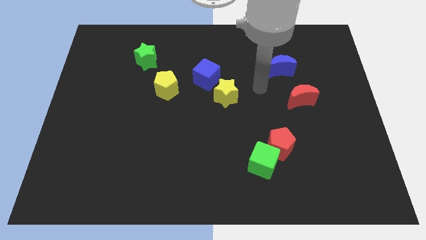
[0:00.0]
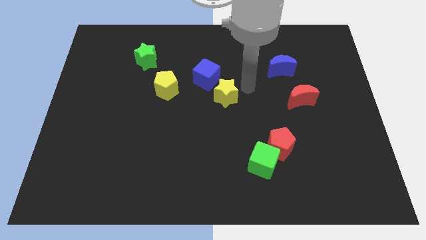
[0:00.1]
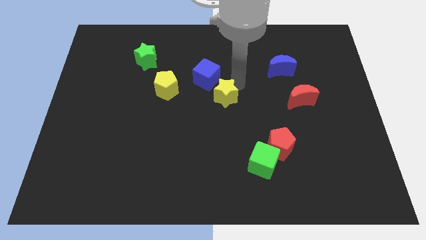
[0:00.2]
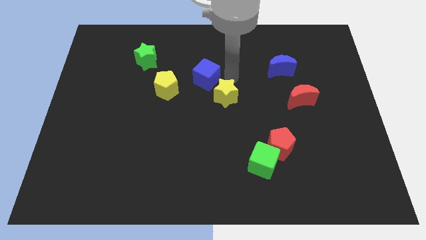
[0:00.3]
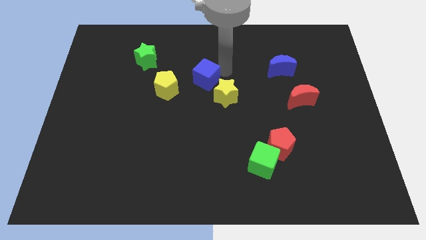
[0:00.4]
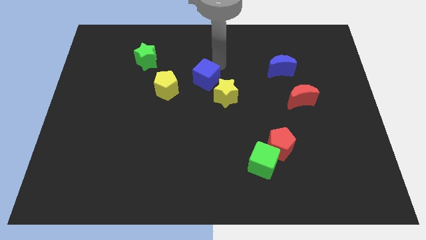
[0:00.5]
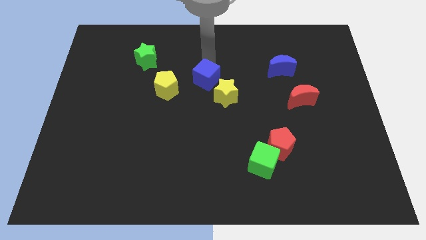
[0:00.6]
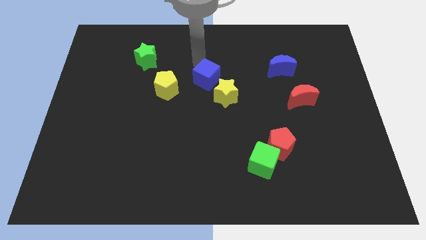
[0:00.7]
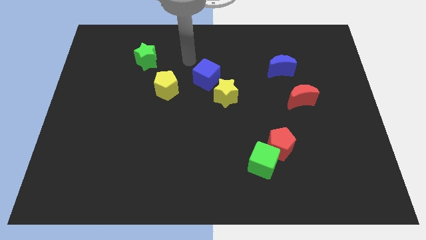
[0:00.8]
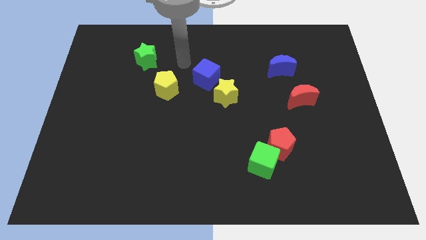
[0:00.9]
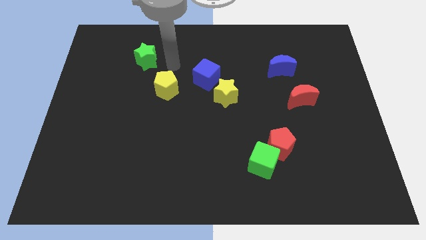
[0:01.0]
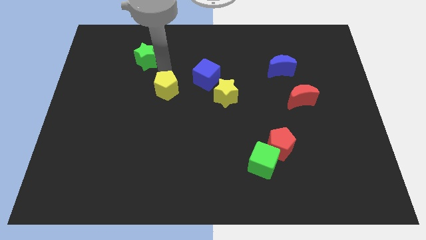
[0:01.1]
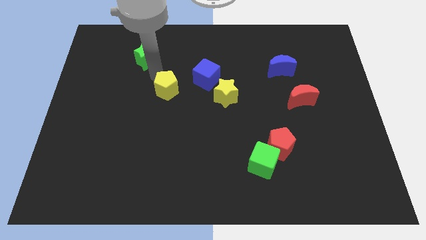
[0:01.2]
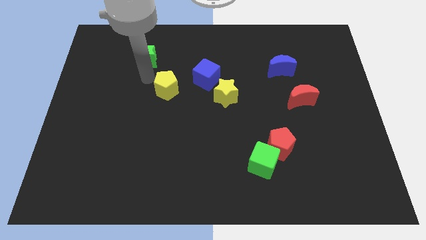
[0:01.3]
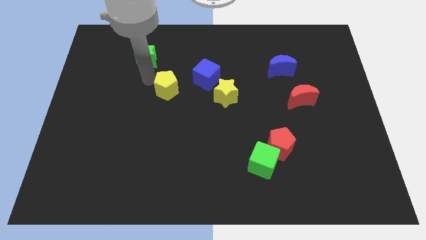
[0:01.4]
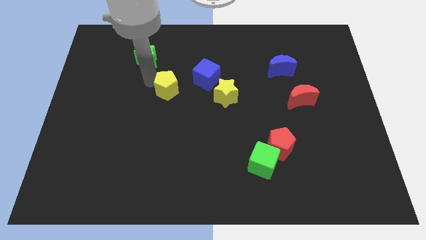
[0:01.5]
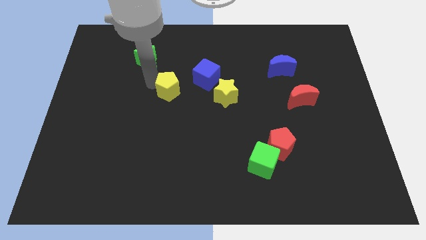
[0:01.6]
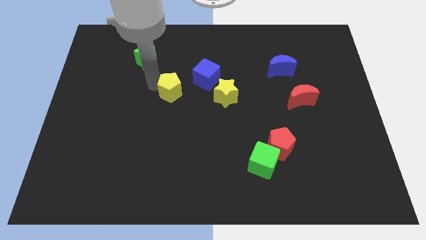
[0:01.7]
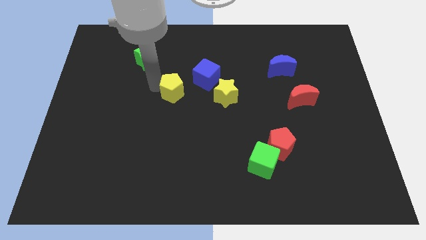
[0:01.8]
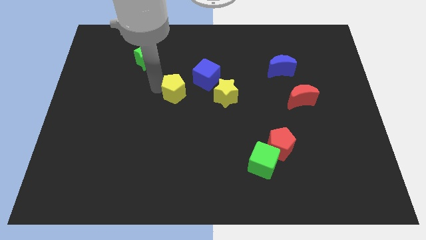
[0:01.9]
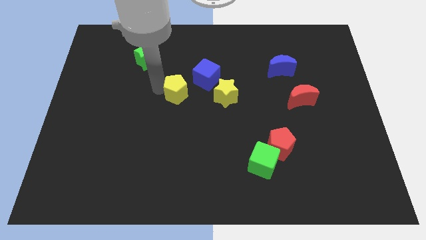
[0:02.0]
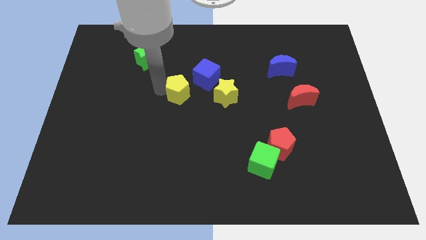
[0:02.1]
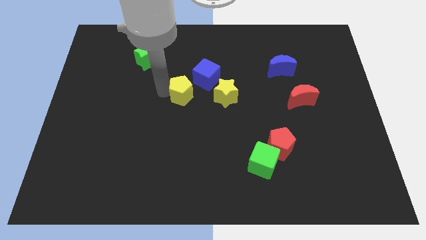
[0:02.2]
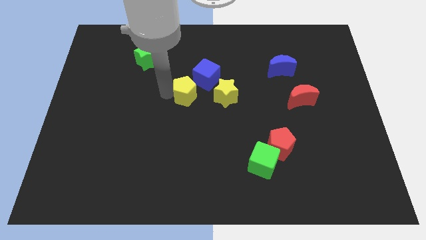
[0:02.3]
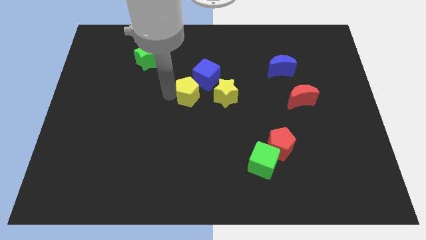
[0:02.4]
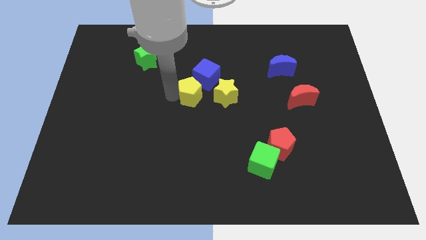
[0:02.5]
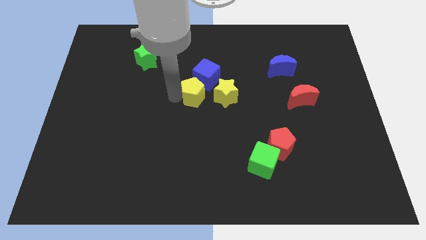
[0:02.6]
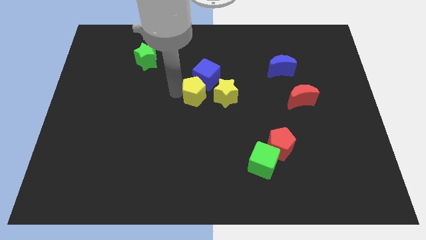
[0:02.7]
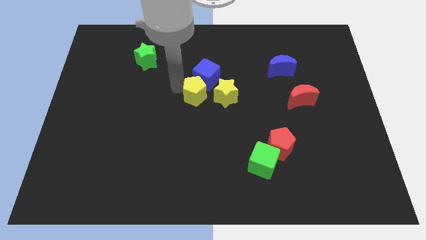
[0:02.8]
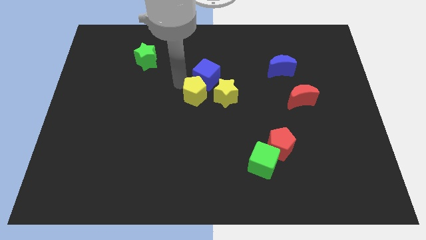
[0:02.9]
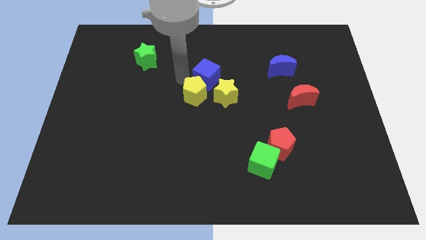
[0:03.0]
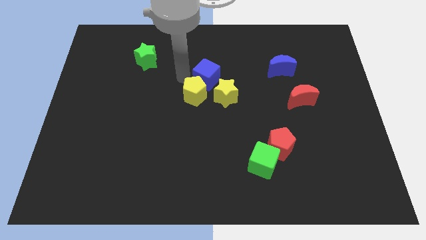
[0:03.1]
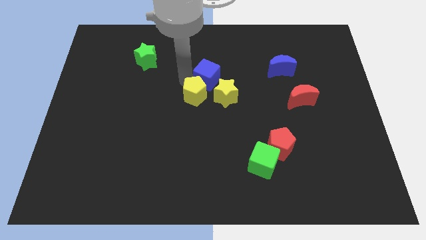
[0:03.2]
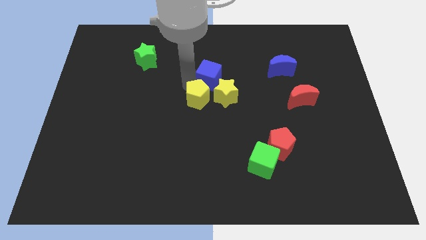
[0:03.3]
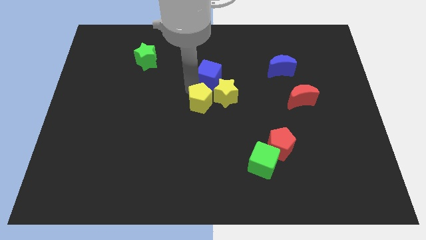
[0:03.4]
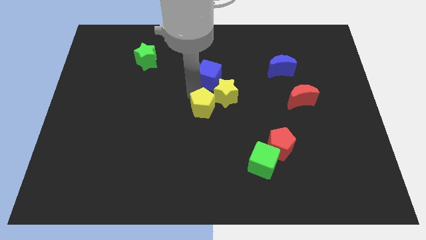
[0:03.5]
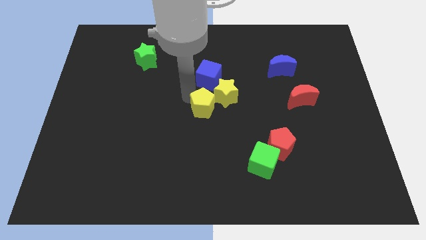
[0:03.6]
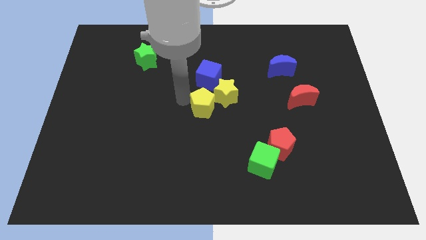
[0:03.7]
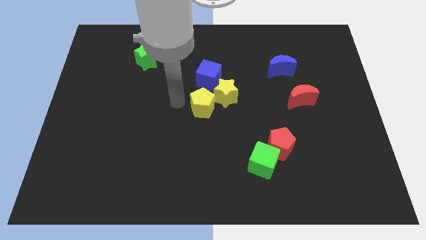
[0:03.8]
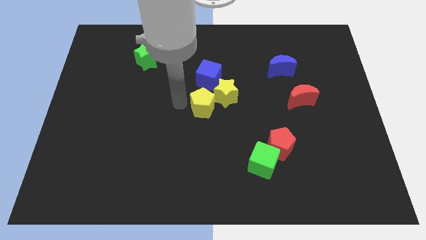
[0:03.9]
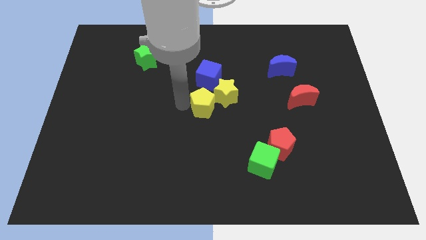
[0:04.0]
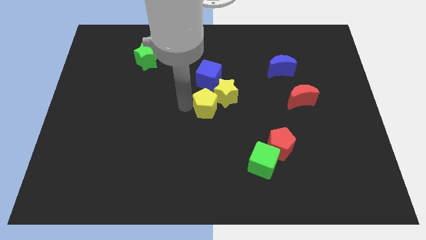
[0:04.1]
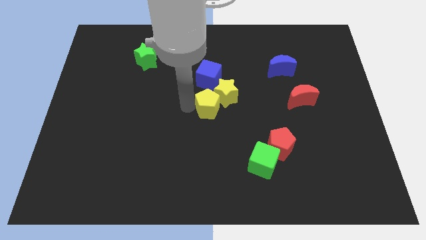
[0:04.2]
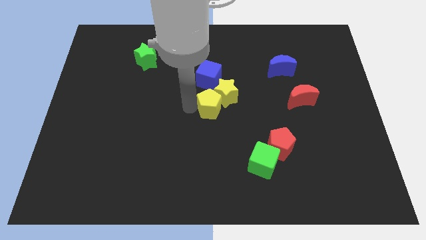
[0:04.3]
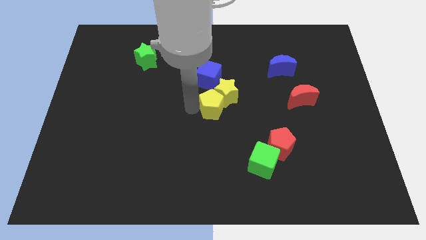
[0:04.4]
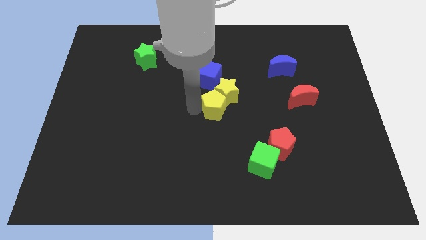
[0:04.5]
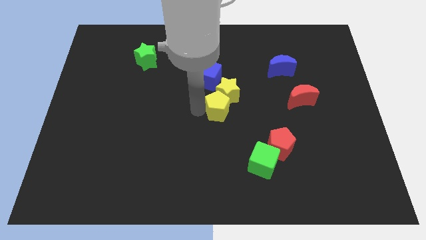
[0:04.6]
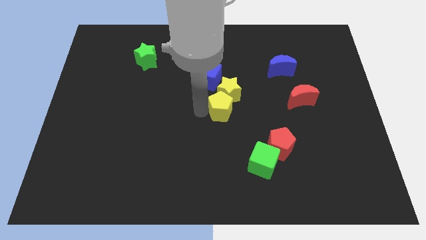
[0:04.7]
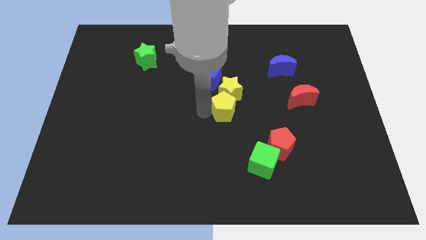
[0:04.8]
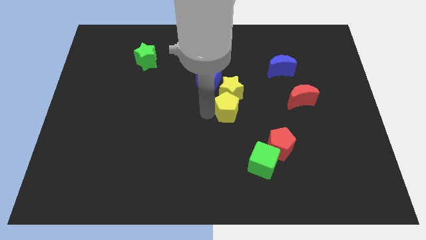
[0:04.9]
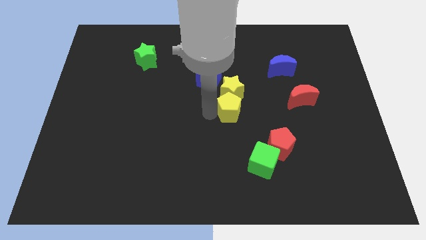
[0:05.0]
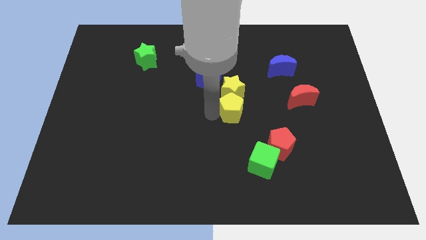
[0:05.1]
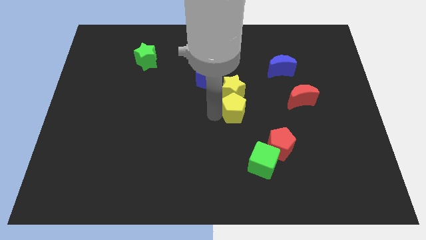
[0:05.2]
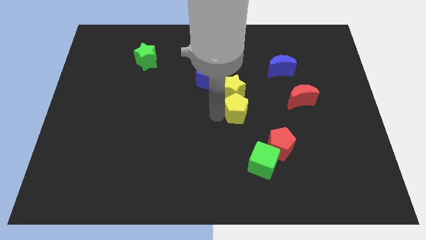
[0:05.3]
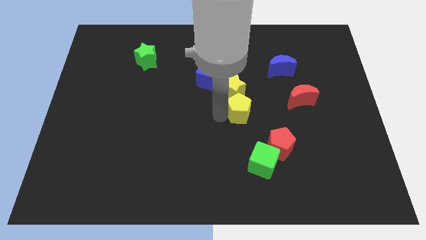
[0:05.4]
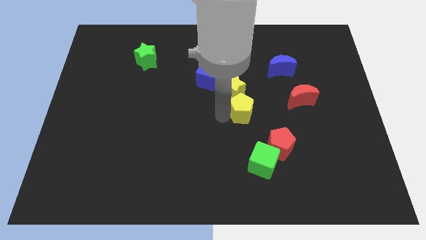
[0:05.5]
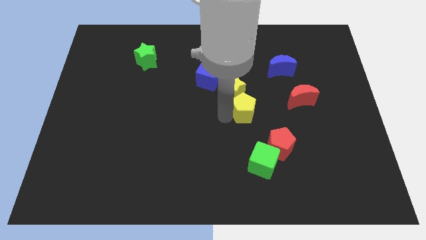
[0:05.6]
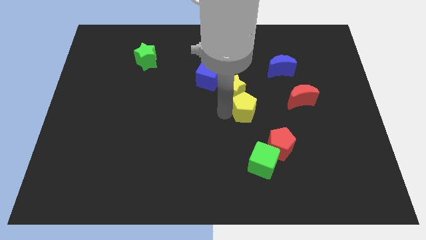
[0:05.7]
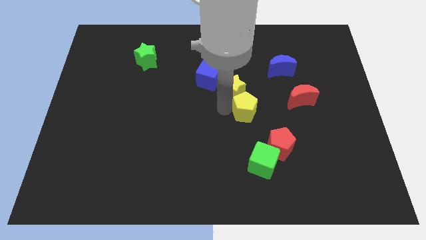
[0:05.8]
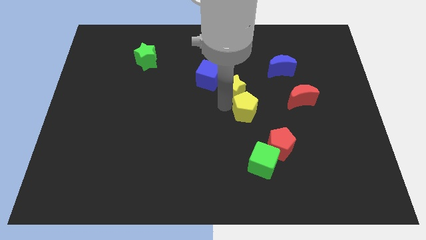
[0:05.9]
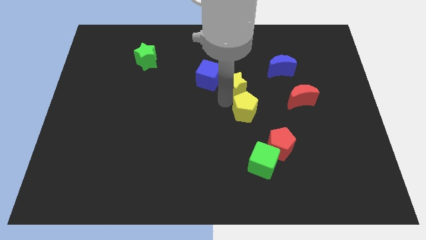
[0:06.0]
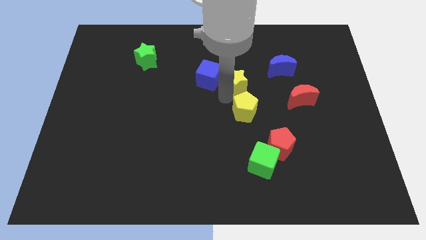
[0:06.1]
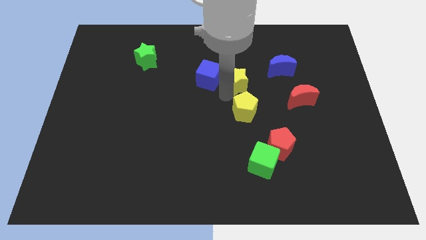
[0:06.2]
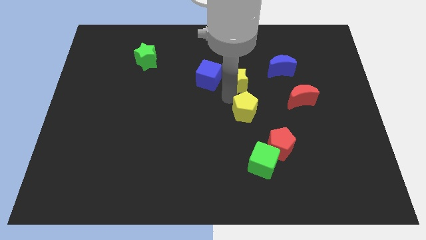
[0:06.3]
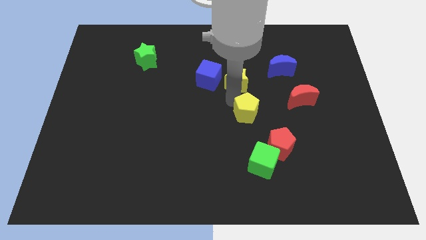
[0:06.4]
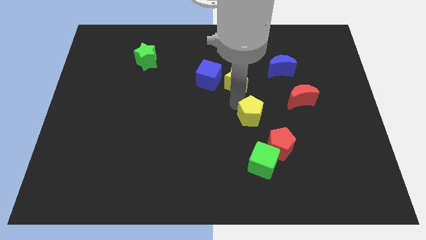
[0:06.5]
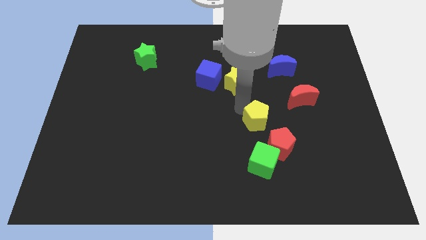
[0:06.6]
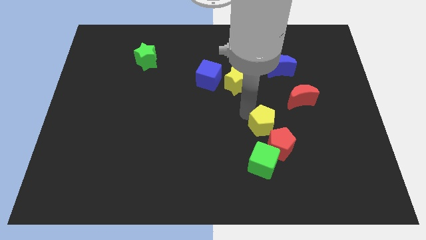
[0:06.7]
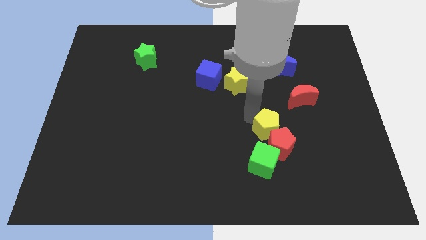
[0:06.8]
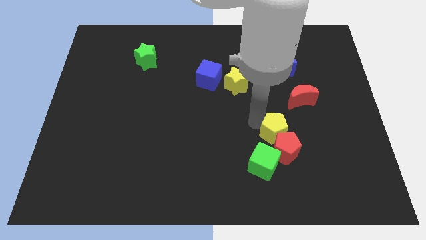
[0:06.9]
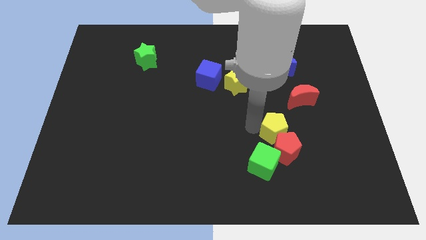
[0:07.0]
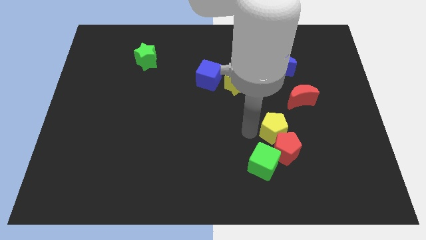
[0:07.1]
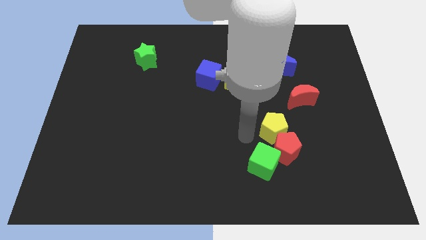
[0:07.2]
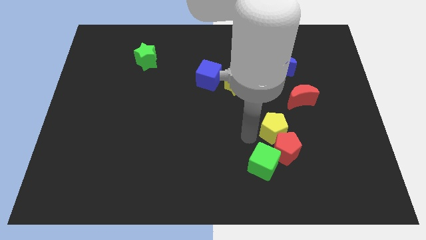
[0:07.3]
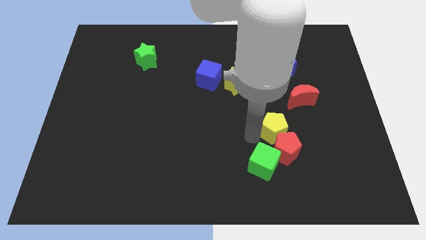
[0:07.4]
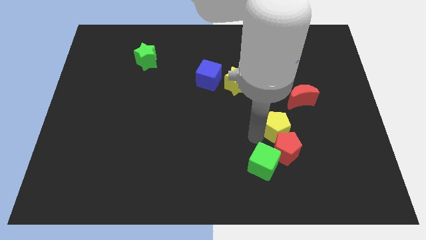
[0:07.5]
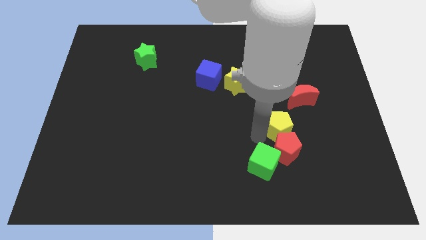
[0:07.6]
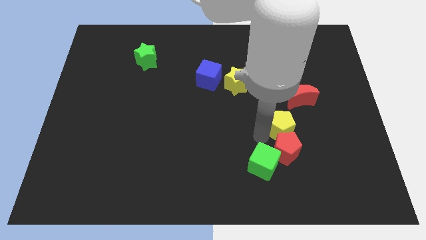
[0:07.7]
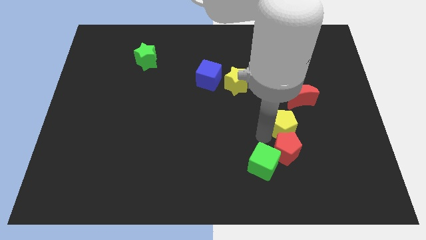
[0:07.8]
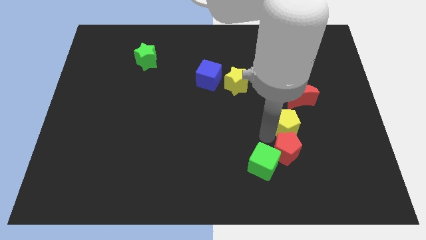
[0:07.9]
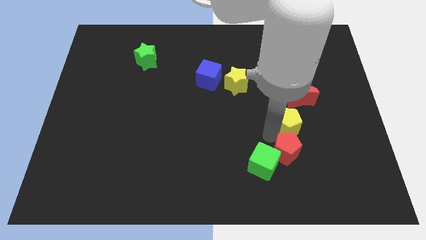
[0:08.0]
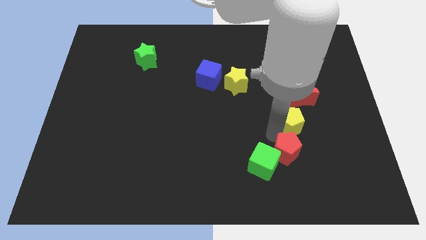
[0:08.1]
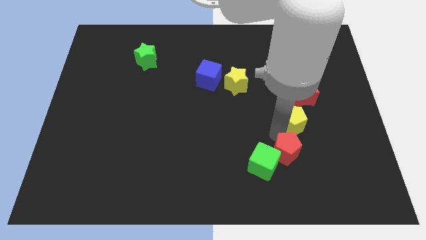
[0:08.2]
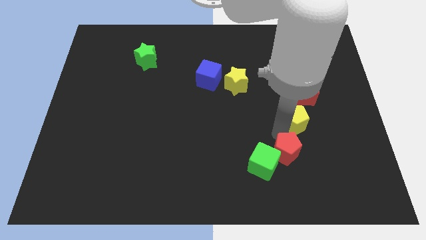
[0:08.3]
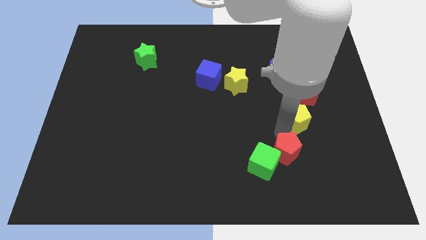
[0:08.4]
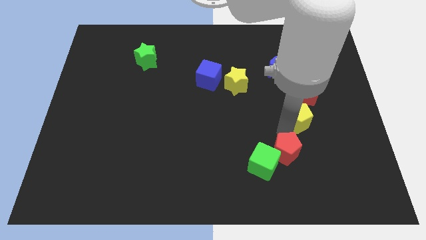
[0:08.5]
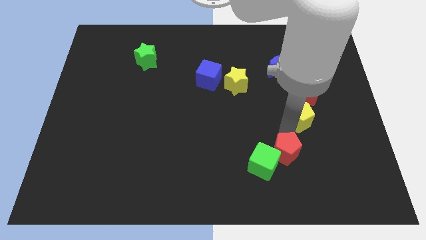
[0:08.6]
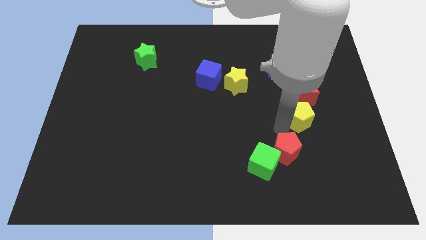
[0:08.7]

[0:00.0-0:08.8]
slide the yellow pentagon diagonally down and to the right of the red moon
